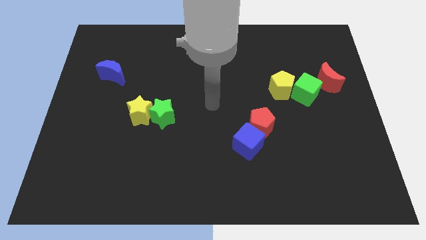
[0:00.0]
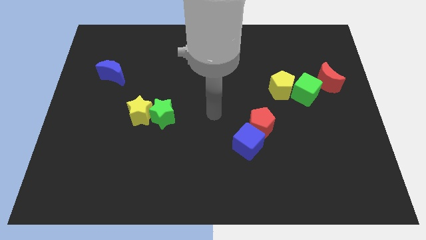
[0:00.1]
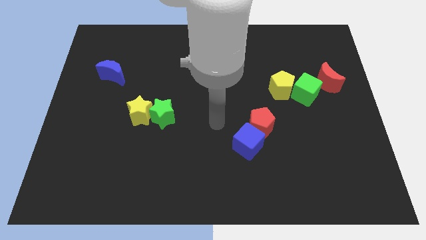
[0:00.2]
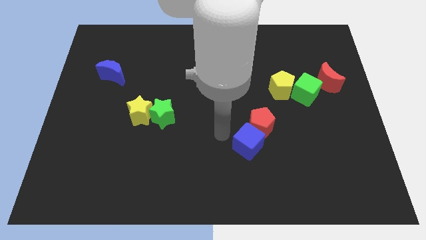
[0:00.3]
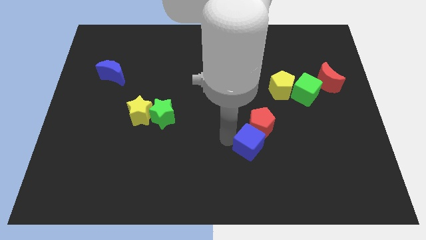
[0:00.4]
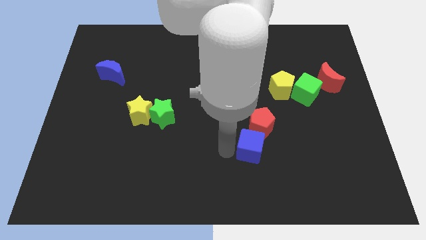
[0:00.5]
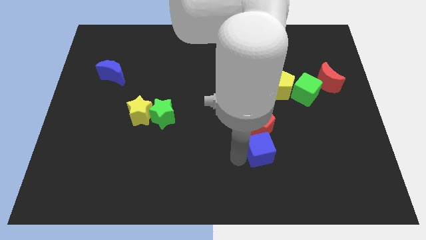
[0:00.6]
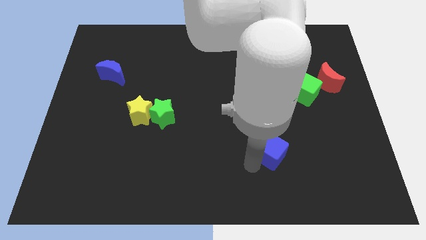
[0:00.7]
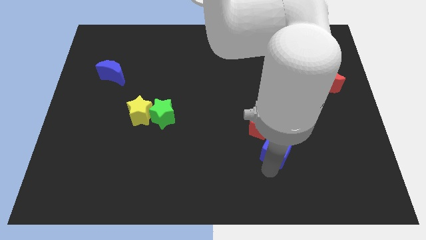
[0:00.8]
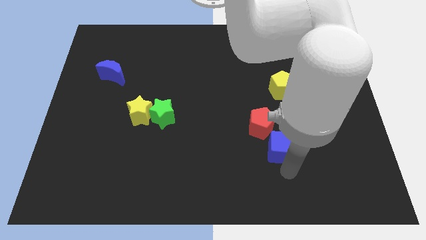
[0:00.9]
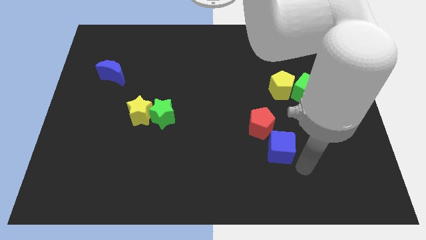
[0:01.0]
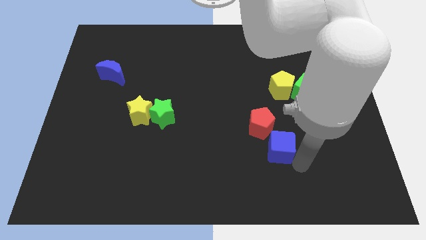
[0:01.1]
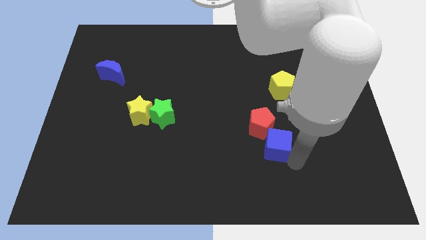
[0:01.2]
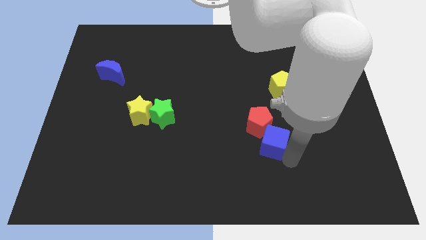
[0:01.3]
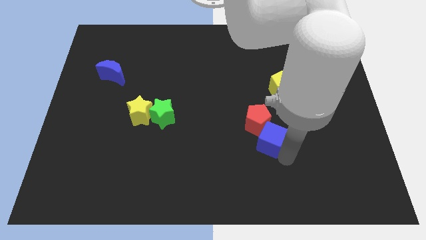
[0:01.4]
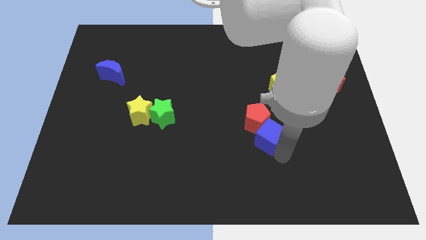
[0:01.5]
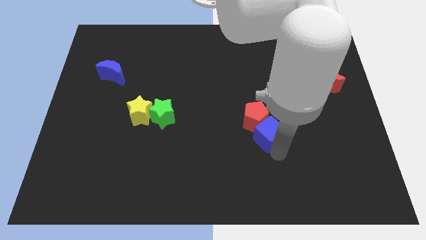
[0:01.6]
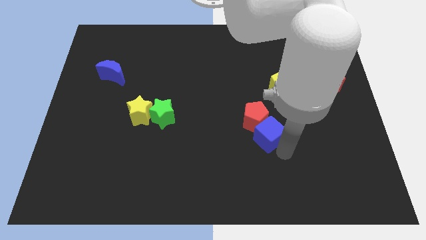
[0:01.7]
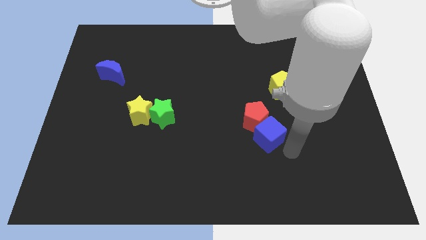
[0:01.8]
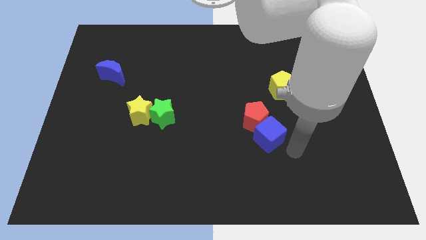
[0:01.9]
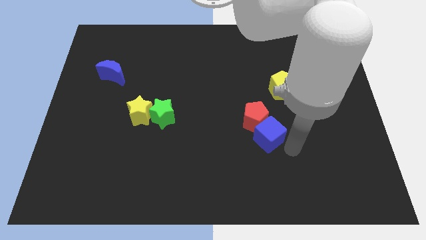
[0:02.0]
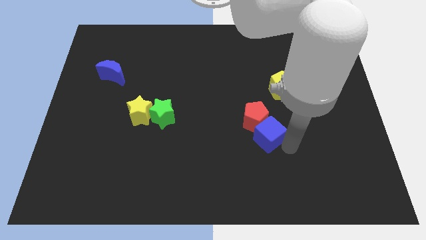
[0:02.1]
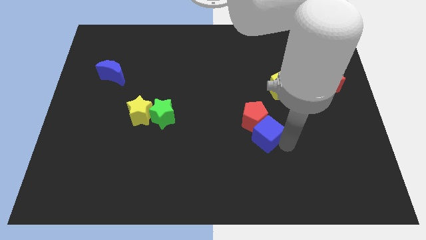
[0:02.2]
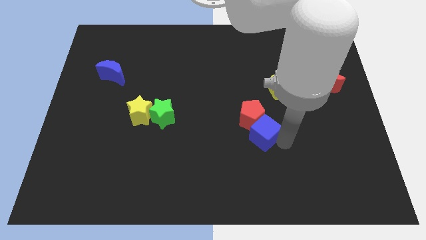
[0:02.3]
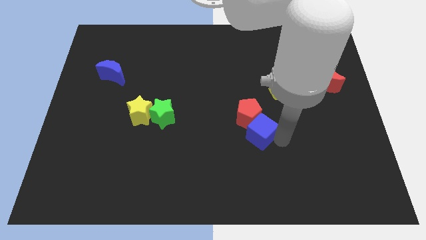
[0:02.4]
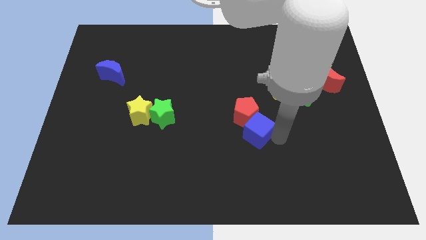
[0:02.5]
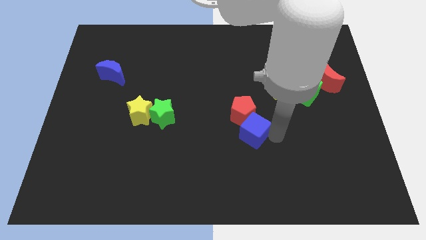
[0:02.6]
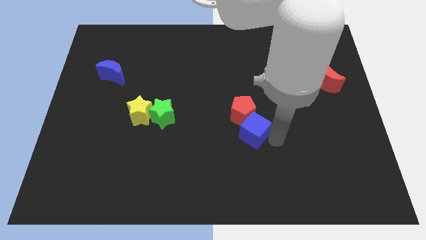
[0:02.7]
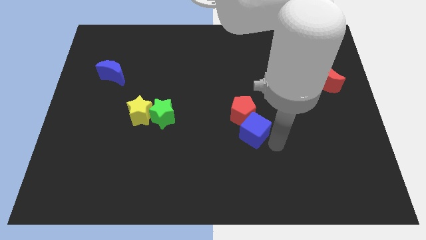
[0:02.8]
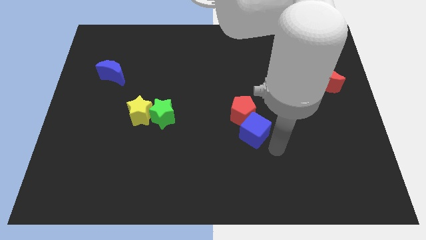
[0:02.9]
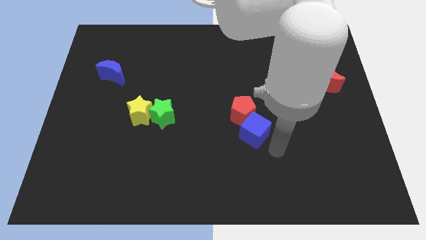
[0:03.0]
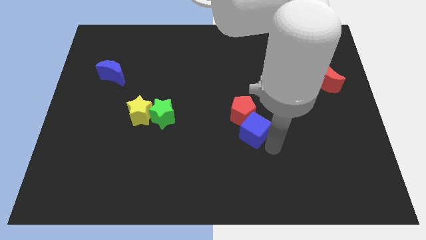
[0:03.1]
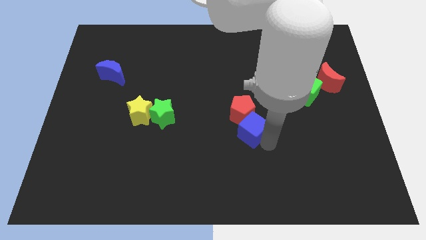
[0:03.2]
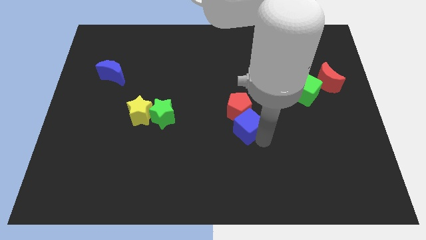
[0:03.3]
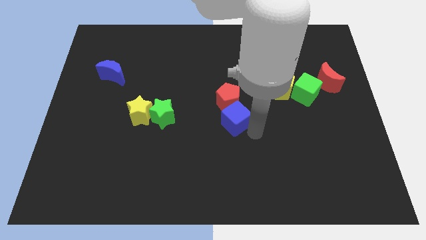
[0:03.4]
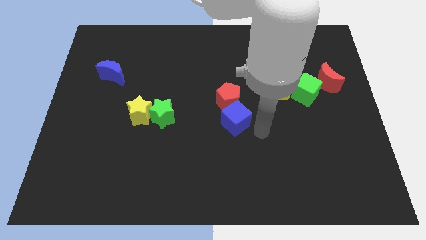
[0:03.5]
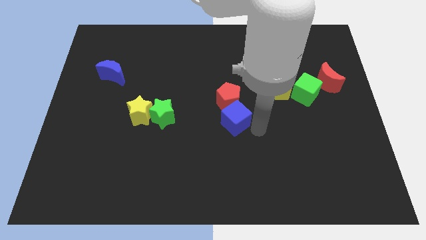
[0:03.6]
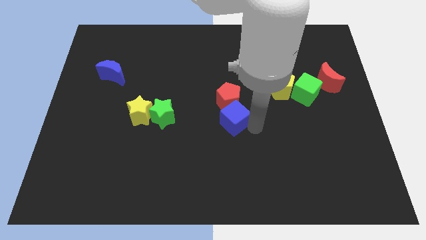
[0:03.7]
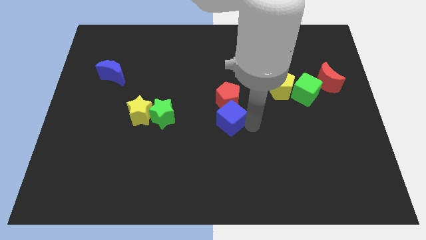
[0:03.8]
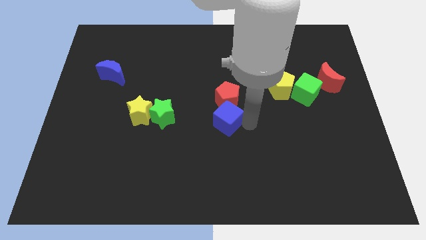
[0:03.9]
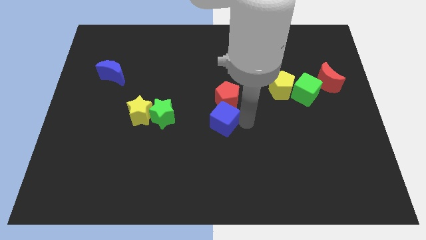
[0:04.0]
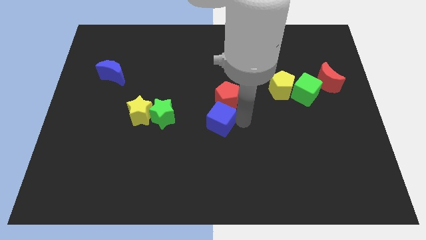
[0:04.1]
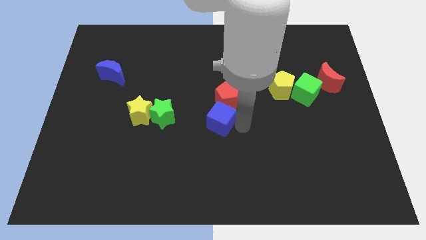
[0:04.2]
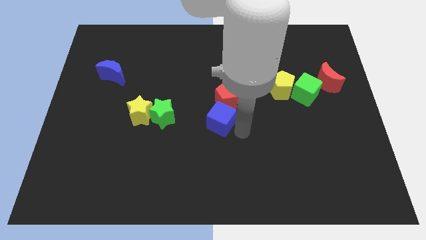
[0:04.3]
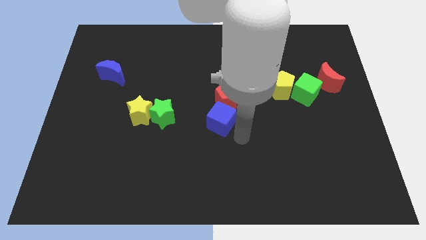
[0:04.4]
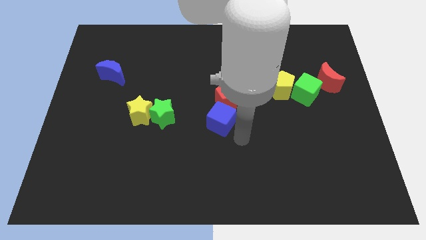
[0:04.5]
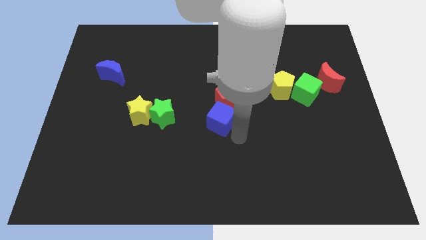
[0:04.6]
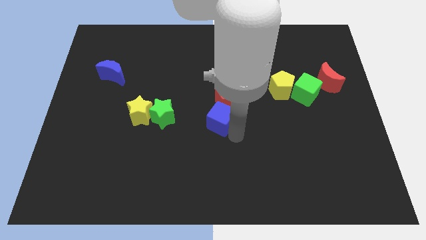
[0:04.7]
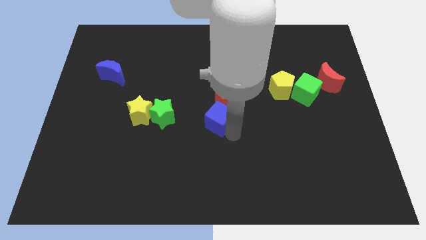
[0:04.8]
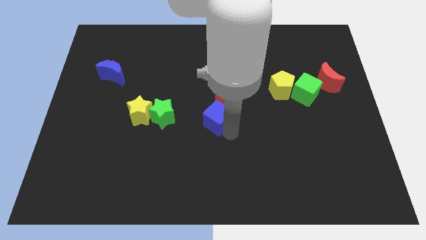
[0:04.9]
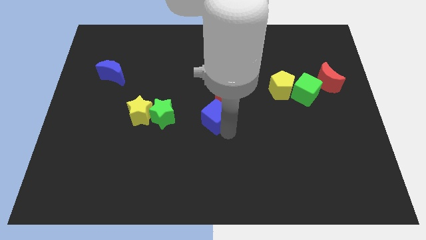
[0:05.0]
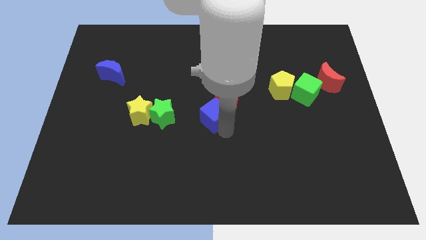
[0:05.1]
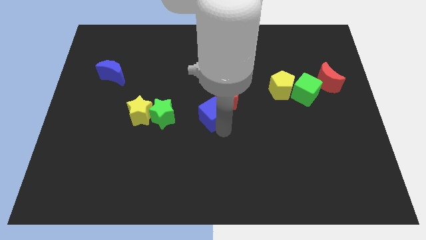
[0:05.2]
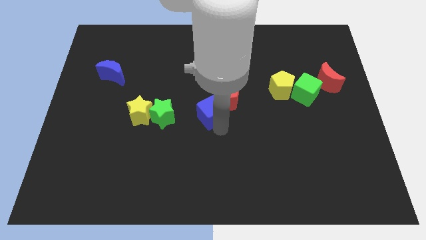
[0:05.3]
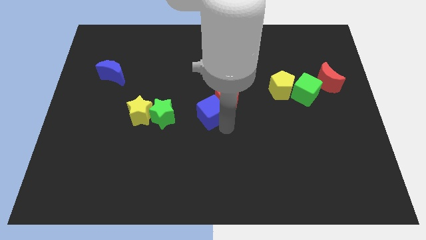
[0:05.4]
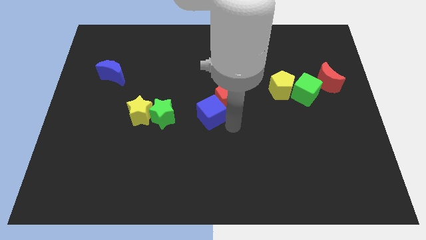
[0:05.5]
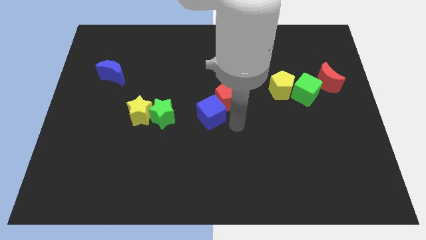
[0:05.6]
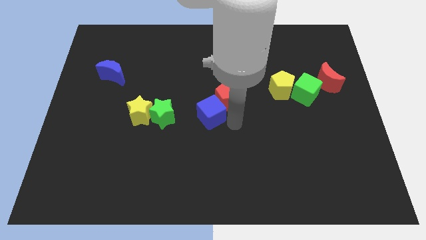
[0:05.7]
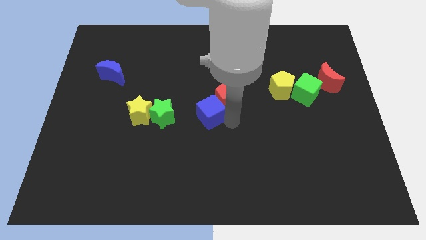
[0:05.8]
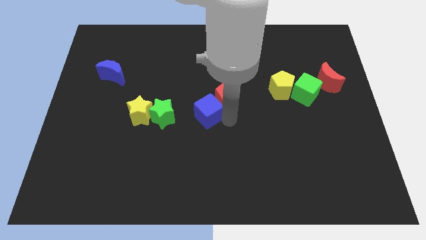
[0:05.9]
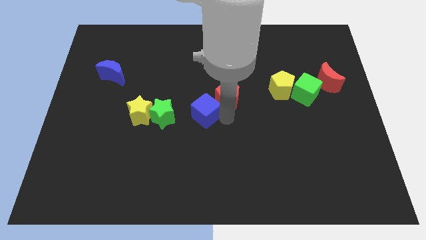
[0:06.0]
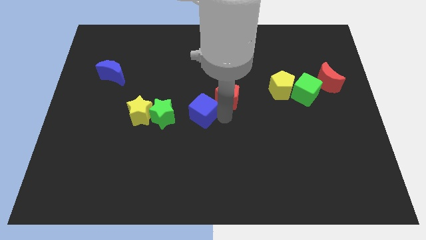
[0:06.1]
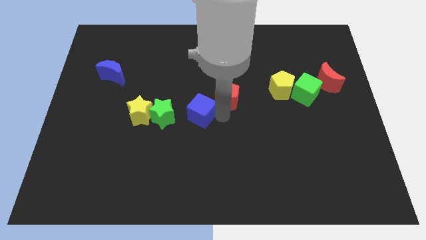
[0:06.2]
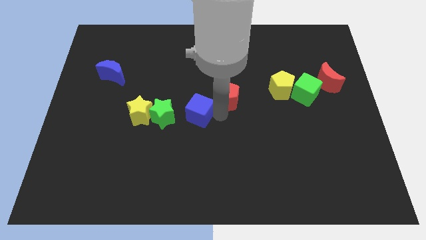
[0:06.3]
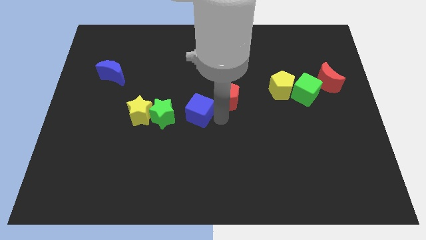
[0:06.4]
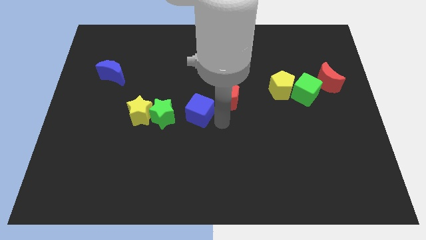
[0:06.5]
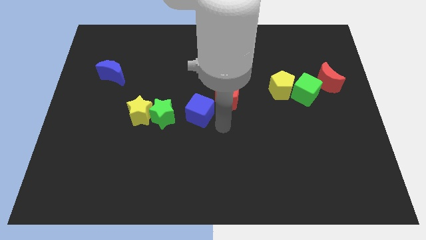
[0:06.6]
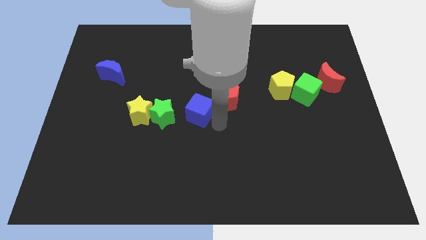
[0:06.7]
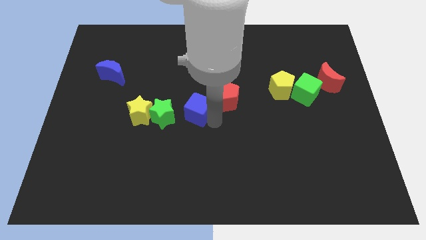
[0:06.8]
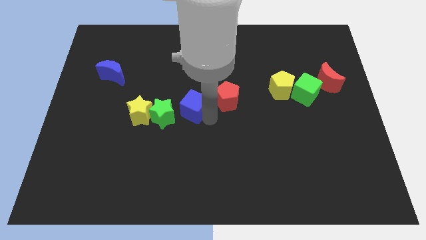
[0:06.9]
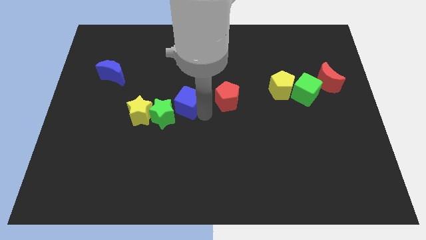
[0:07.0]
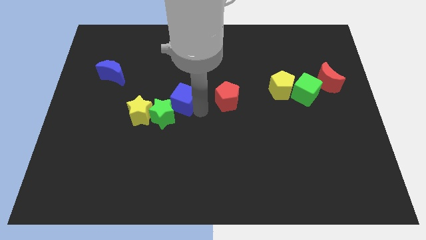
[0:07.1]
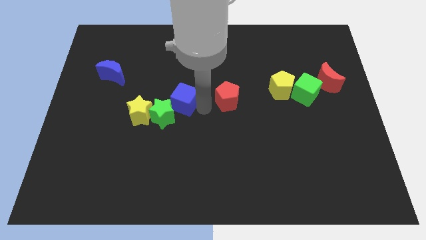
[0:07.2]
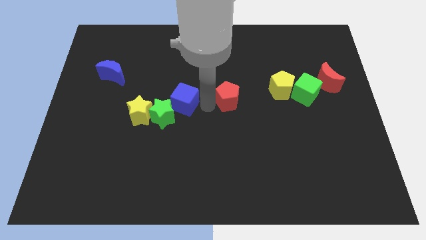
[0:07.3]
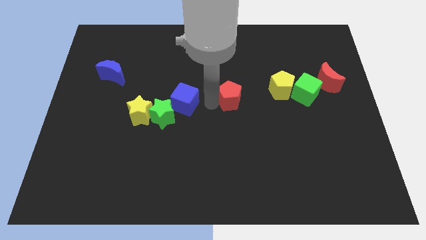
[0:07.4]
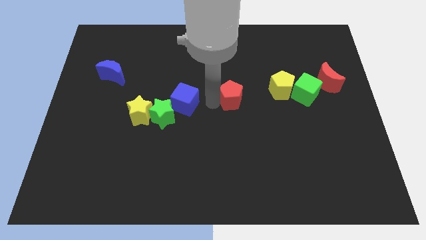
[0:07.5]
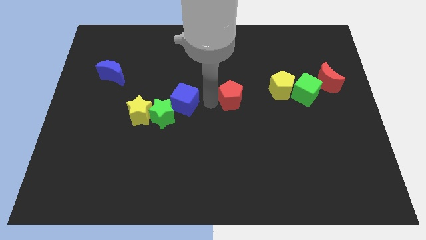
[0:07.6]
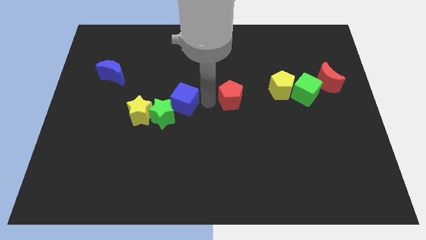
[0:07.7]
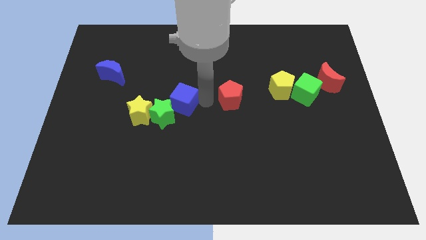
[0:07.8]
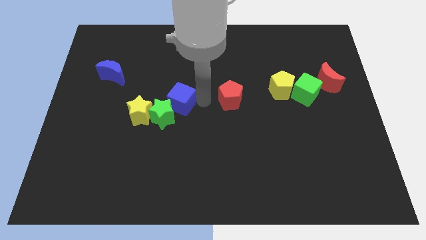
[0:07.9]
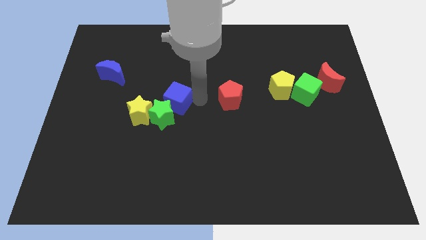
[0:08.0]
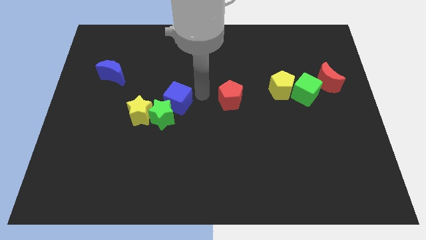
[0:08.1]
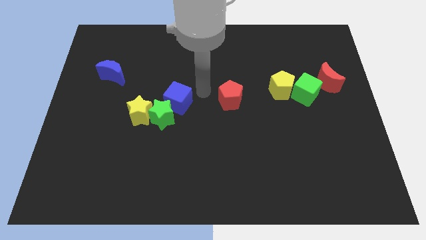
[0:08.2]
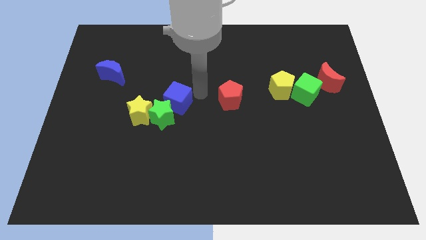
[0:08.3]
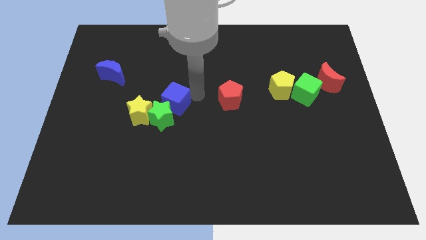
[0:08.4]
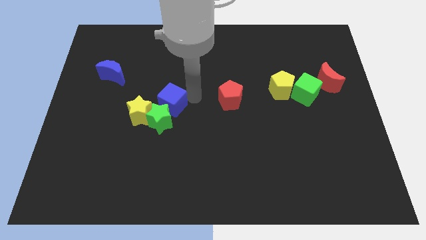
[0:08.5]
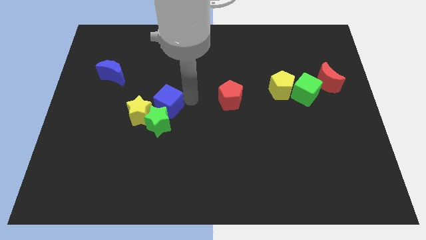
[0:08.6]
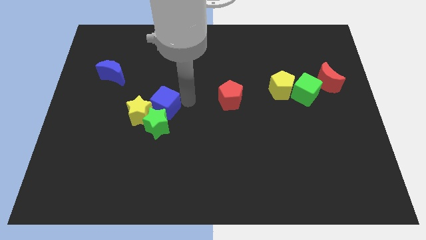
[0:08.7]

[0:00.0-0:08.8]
push the blue cube next to the yellow star
